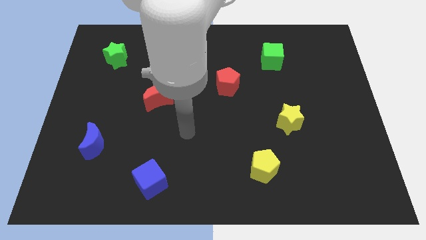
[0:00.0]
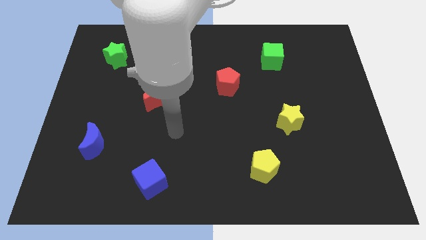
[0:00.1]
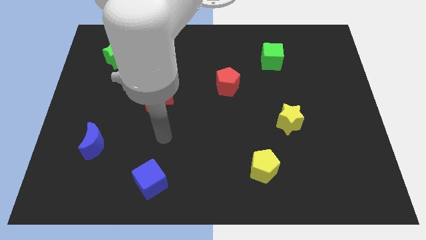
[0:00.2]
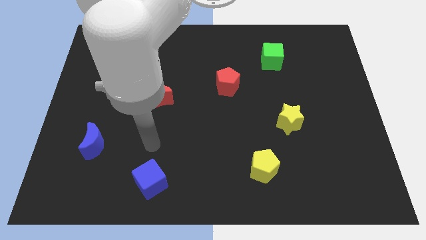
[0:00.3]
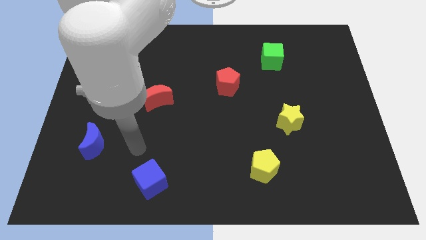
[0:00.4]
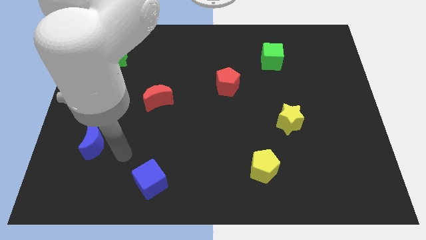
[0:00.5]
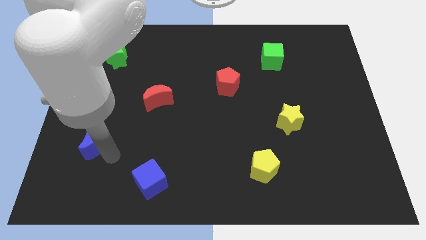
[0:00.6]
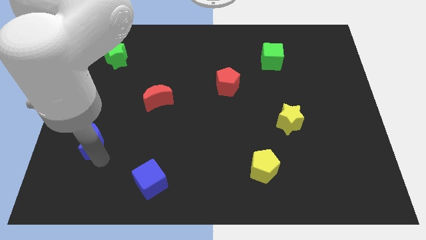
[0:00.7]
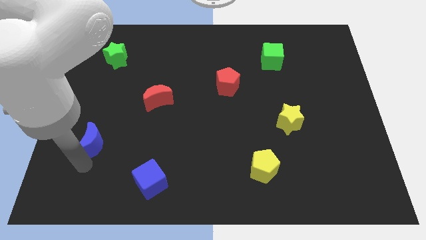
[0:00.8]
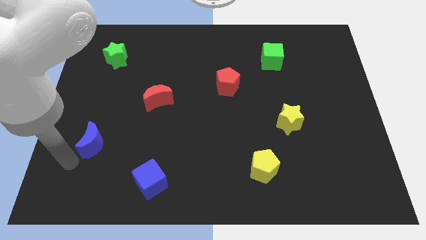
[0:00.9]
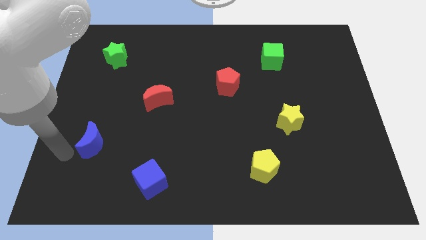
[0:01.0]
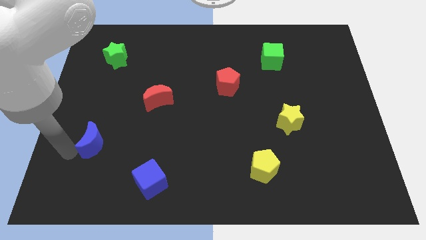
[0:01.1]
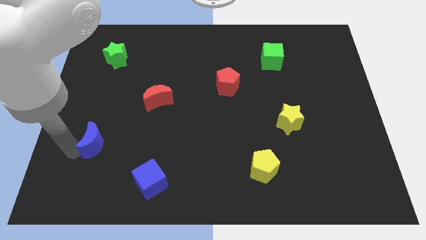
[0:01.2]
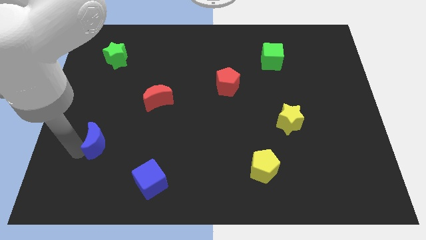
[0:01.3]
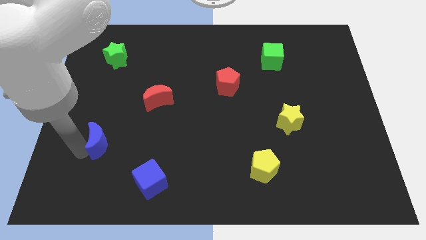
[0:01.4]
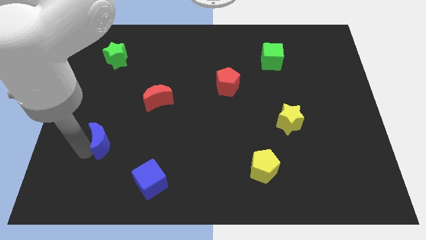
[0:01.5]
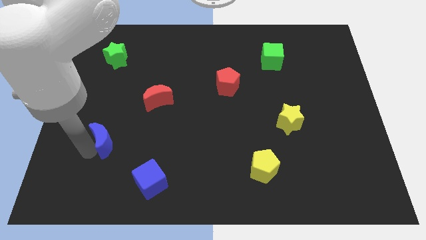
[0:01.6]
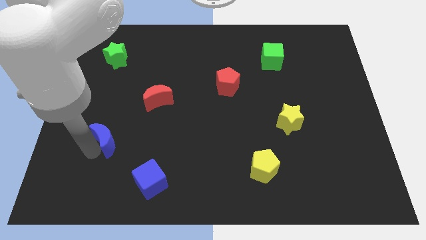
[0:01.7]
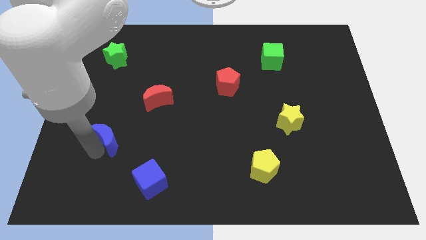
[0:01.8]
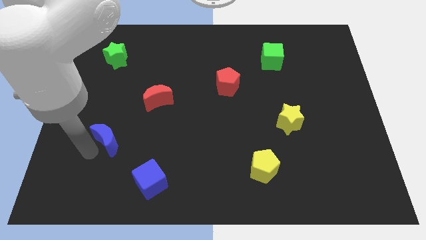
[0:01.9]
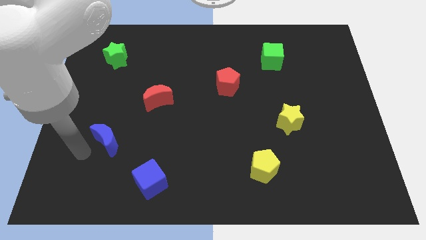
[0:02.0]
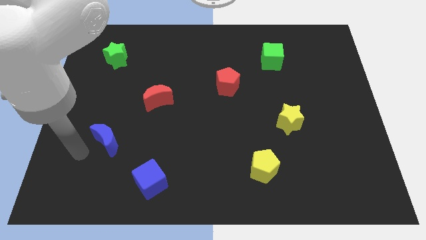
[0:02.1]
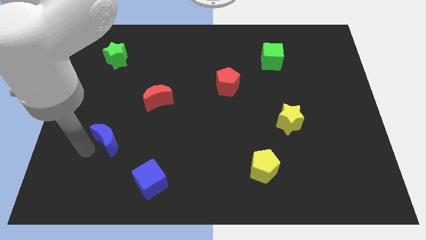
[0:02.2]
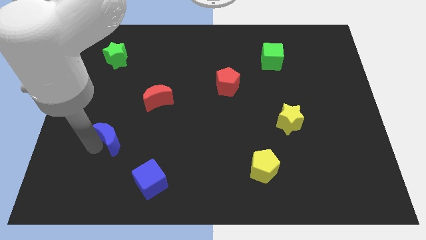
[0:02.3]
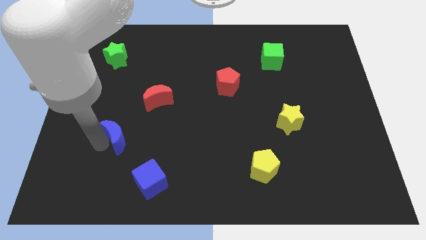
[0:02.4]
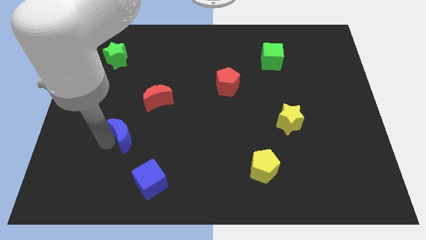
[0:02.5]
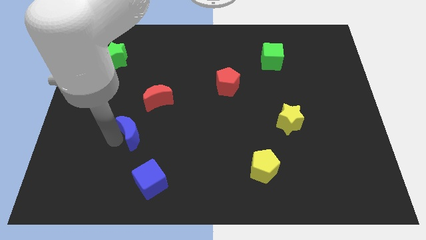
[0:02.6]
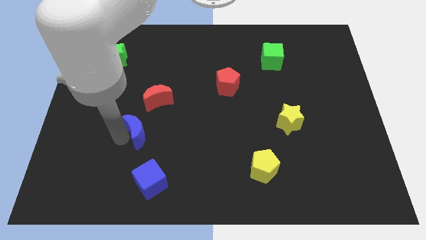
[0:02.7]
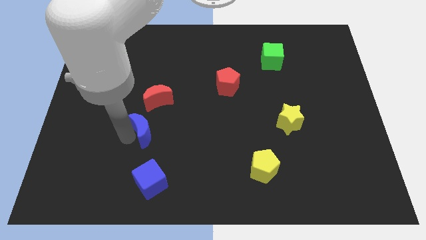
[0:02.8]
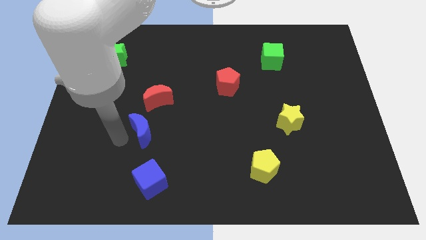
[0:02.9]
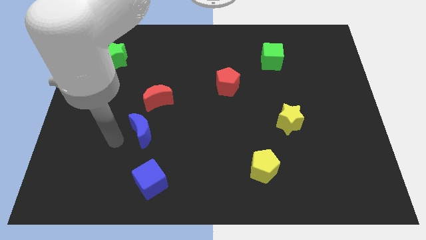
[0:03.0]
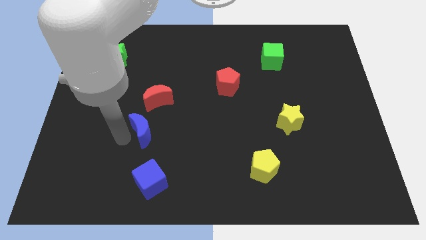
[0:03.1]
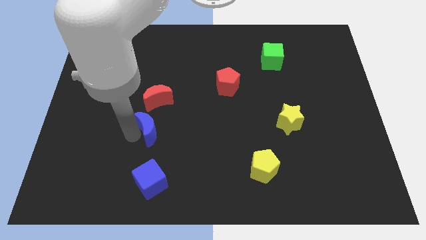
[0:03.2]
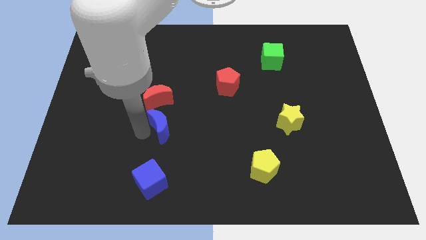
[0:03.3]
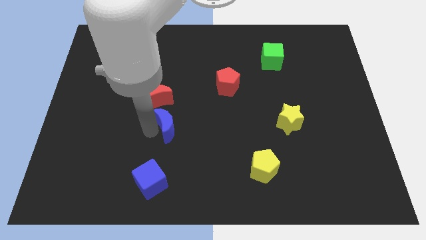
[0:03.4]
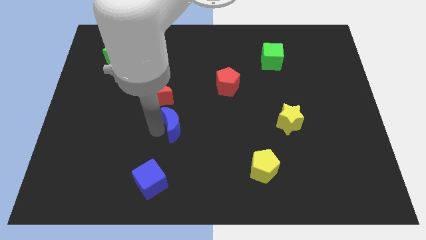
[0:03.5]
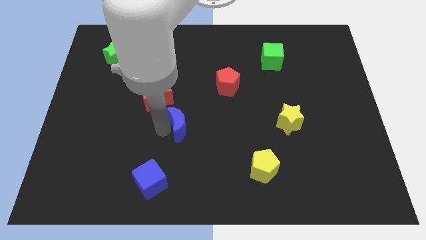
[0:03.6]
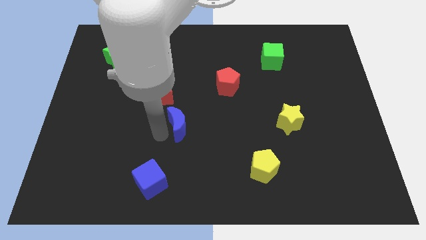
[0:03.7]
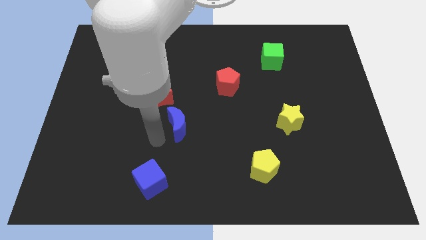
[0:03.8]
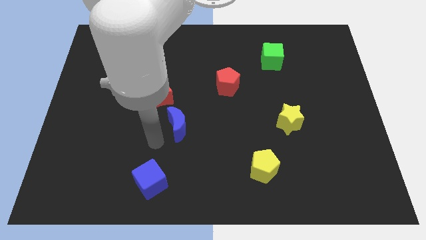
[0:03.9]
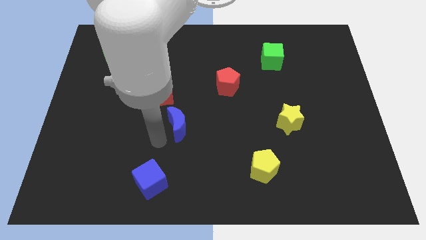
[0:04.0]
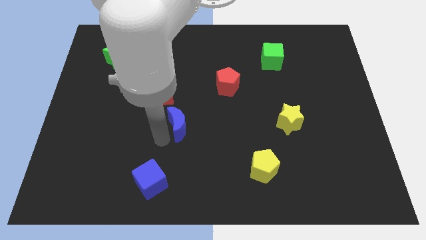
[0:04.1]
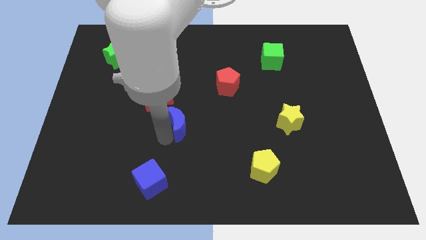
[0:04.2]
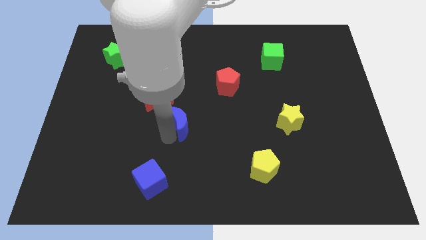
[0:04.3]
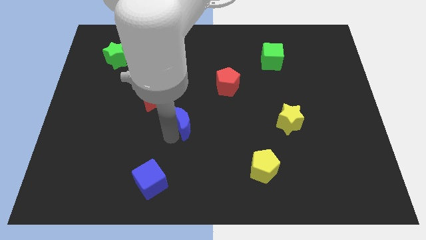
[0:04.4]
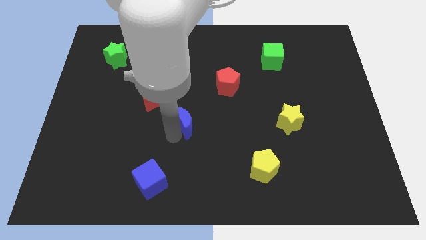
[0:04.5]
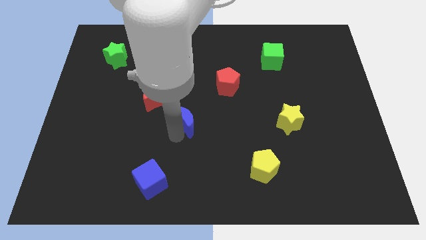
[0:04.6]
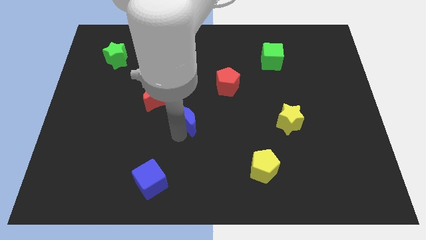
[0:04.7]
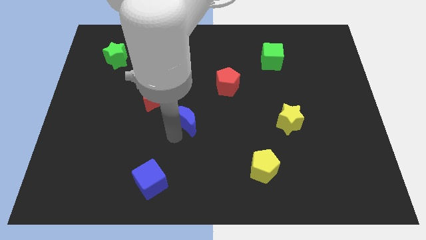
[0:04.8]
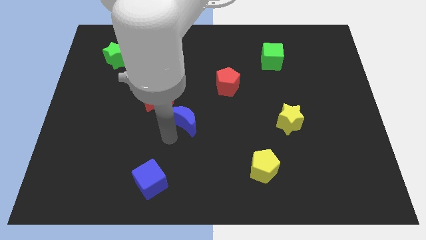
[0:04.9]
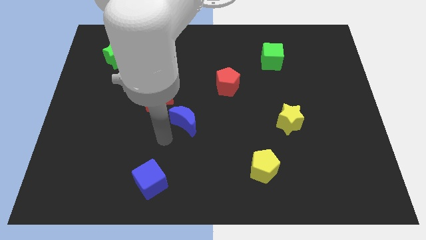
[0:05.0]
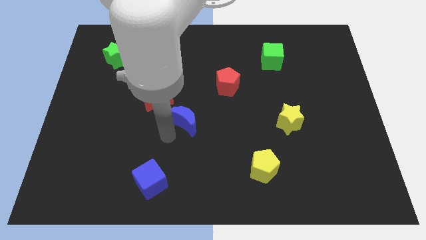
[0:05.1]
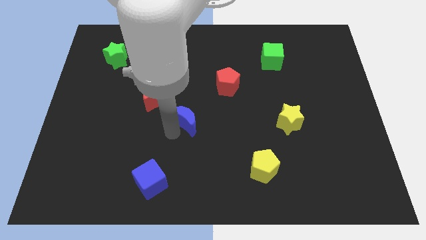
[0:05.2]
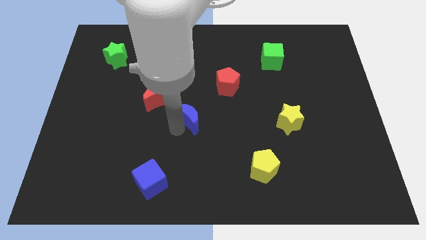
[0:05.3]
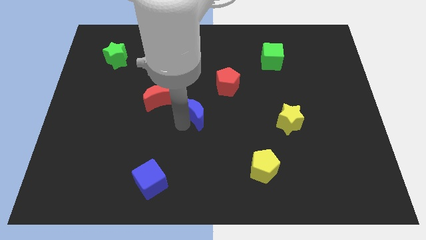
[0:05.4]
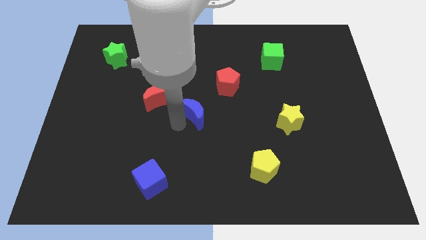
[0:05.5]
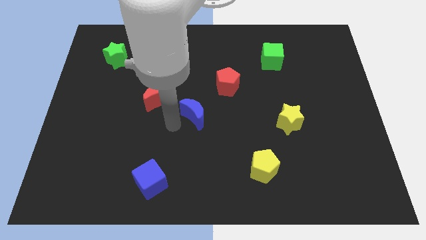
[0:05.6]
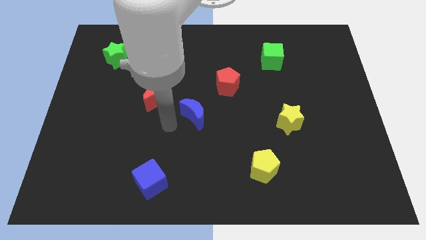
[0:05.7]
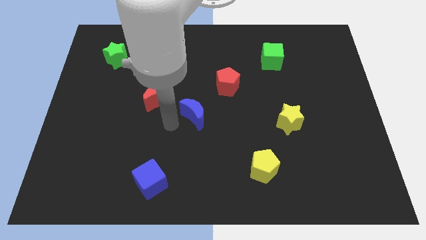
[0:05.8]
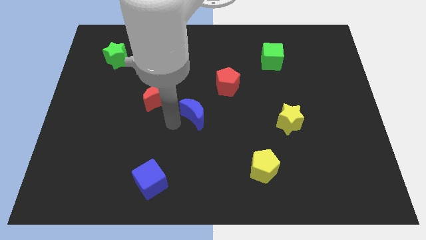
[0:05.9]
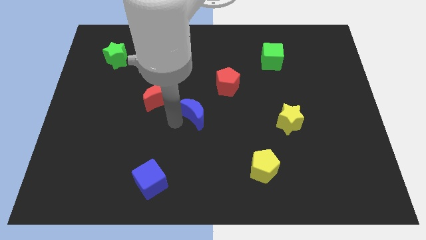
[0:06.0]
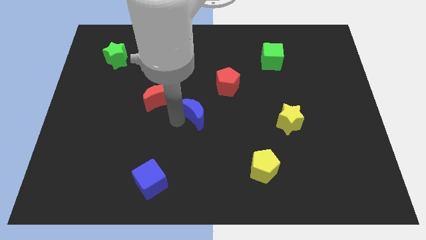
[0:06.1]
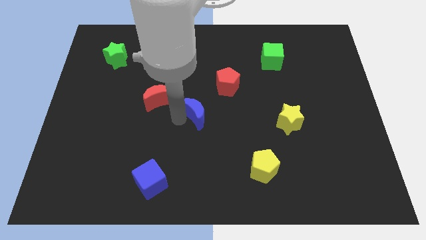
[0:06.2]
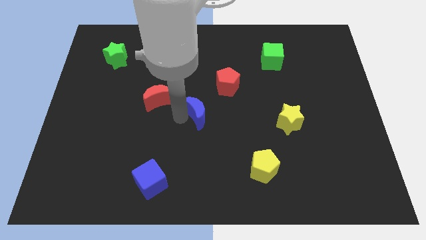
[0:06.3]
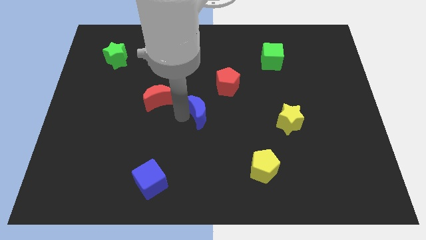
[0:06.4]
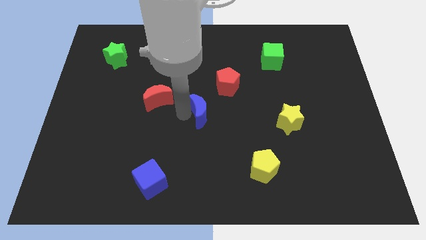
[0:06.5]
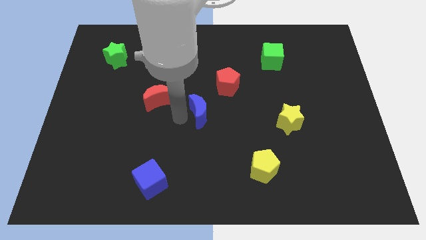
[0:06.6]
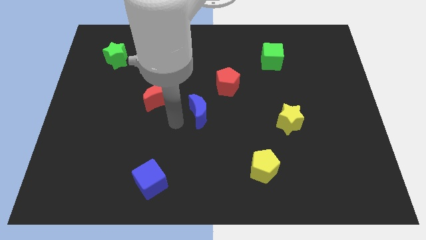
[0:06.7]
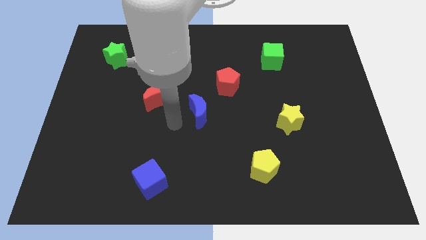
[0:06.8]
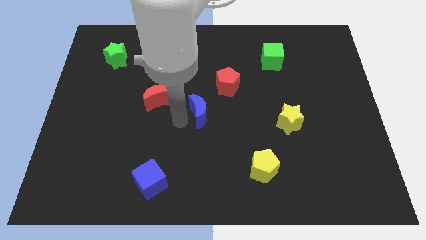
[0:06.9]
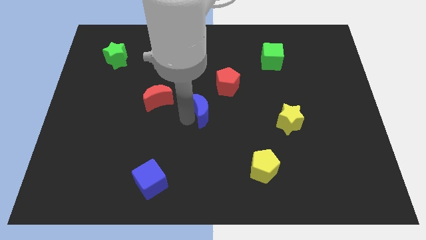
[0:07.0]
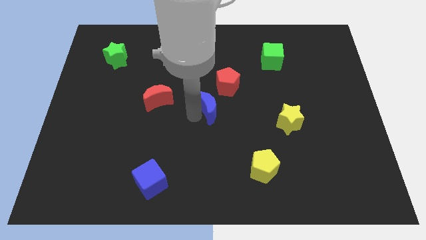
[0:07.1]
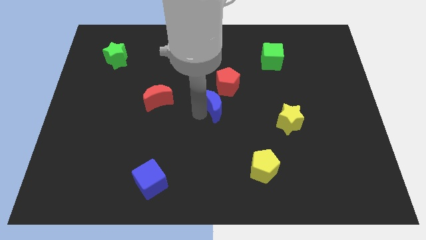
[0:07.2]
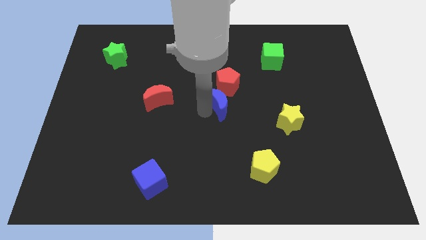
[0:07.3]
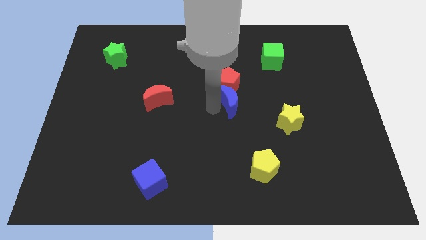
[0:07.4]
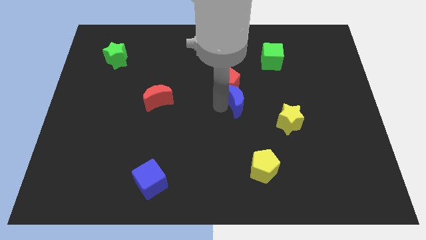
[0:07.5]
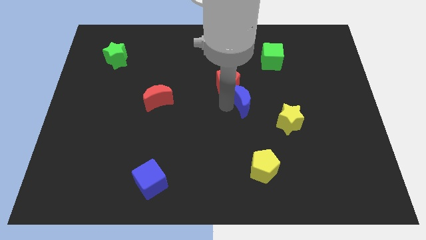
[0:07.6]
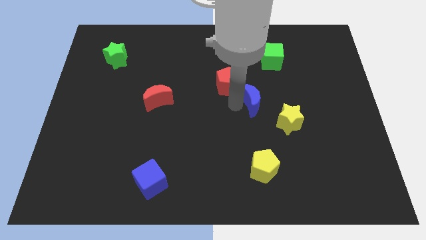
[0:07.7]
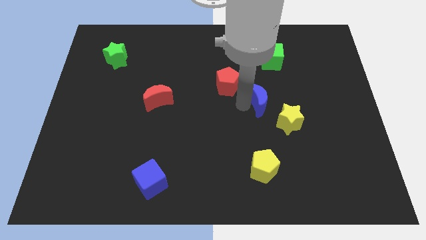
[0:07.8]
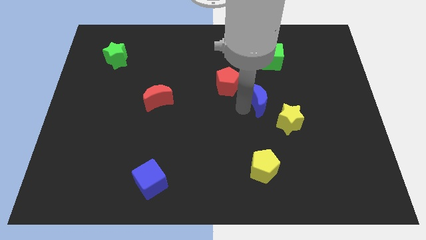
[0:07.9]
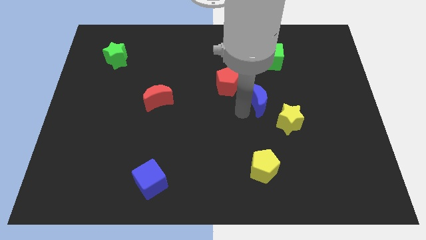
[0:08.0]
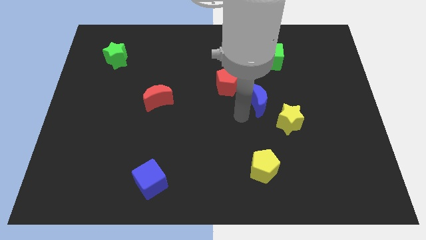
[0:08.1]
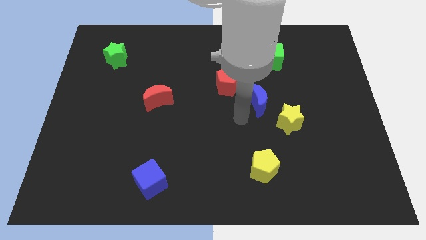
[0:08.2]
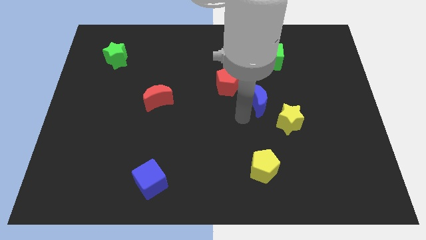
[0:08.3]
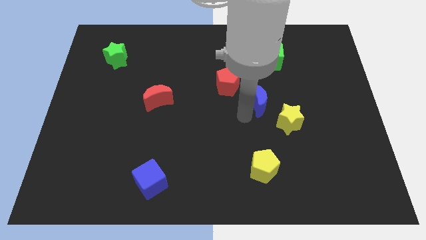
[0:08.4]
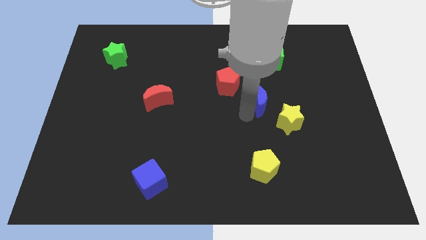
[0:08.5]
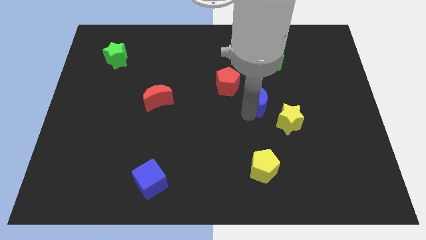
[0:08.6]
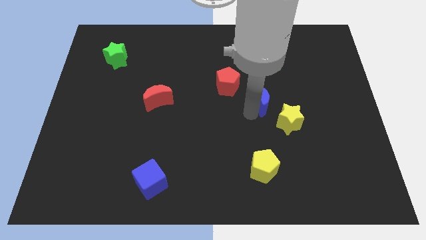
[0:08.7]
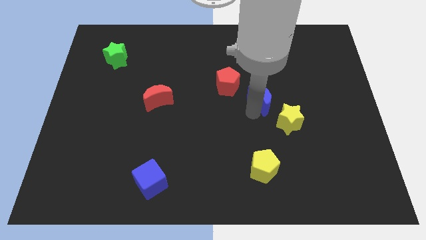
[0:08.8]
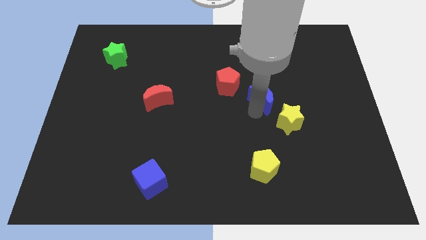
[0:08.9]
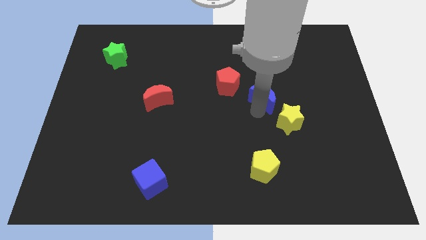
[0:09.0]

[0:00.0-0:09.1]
put the blue moon above the yellow star
